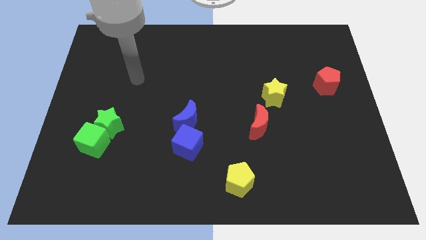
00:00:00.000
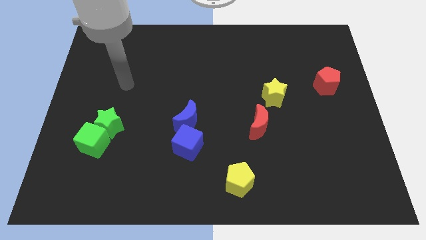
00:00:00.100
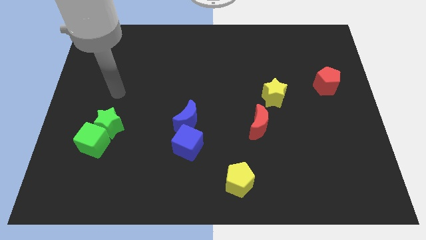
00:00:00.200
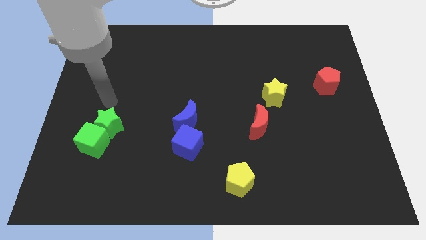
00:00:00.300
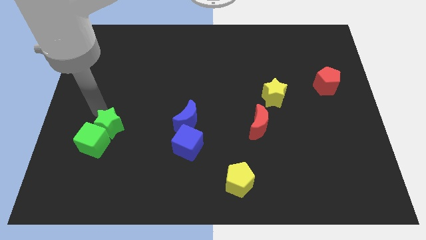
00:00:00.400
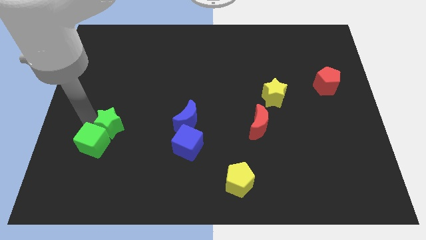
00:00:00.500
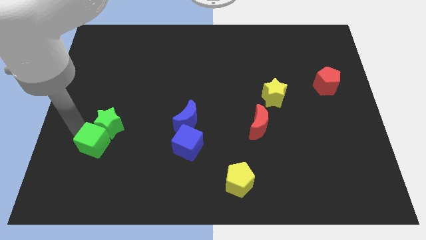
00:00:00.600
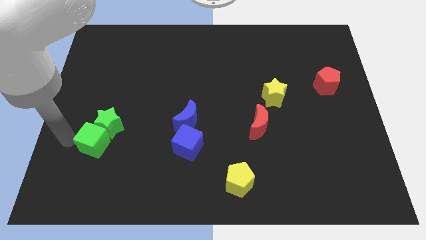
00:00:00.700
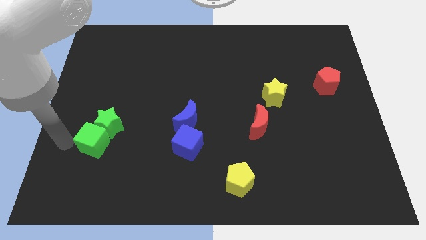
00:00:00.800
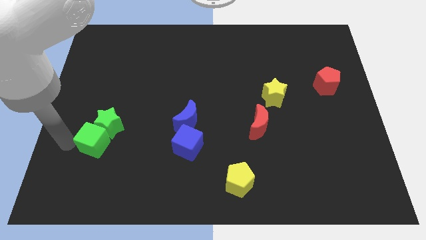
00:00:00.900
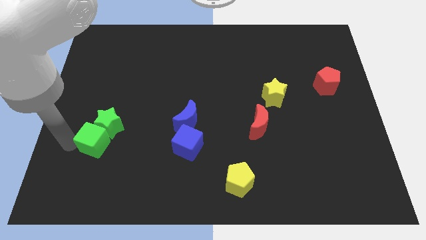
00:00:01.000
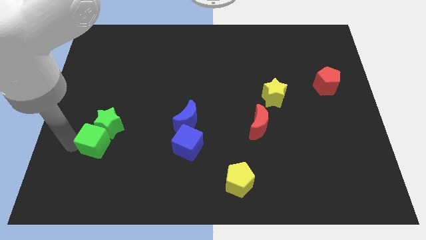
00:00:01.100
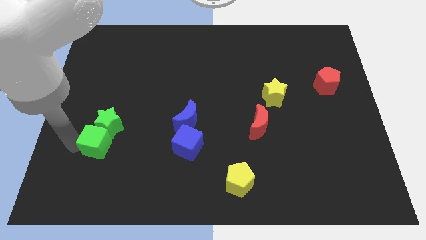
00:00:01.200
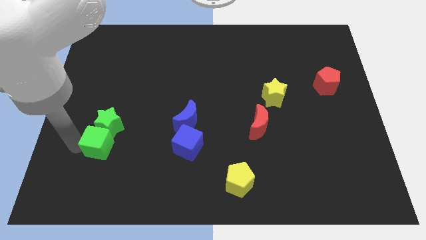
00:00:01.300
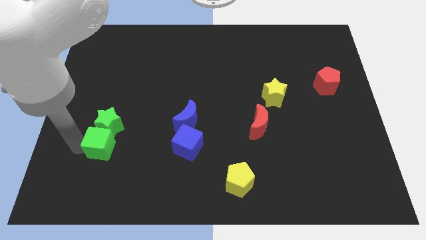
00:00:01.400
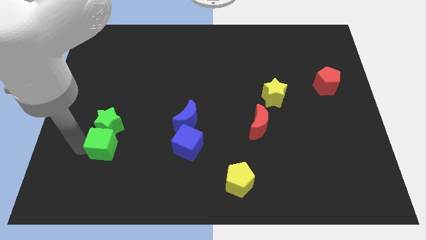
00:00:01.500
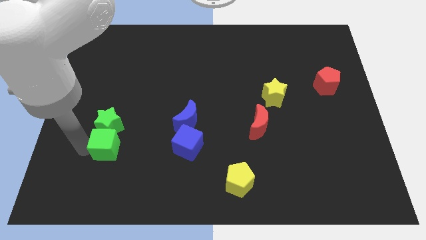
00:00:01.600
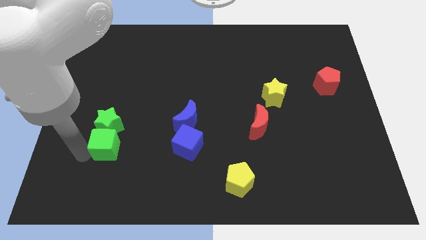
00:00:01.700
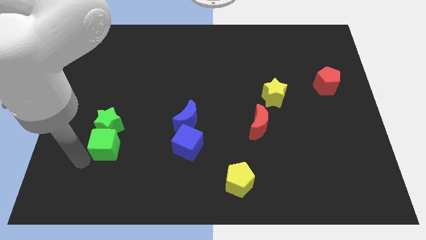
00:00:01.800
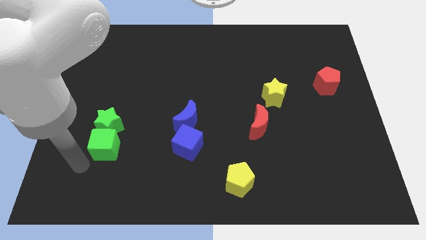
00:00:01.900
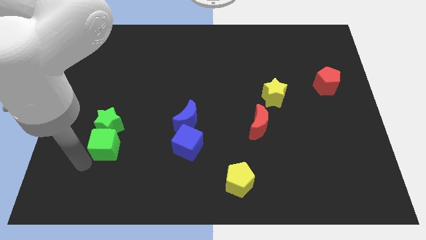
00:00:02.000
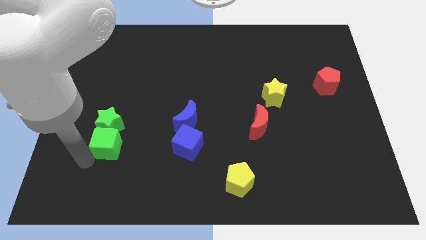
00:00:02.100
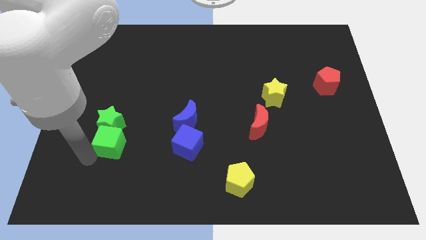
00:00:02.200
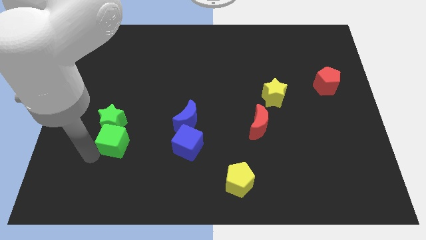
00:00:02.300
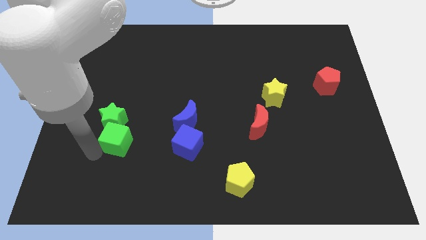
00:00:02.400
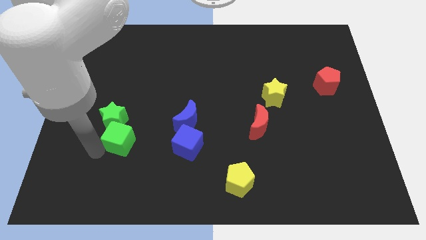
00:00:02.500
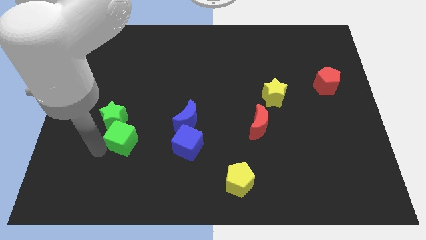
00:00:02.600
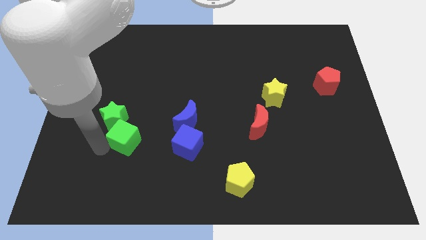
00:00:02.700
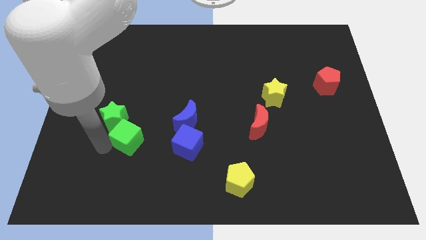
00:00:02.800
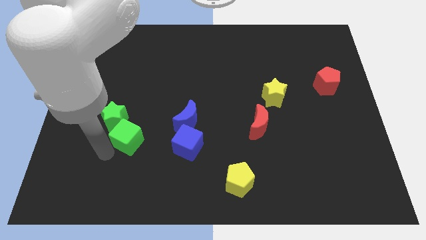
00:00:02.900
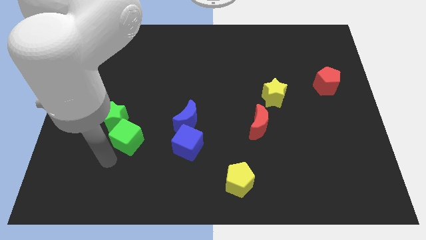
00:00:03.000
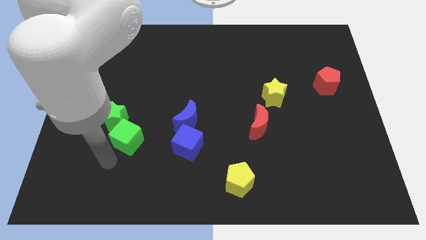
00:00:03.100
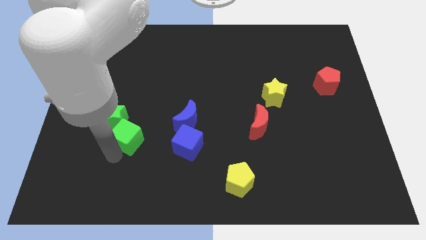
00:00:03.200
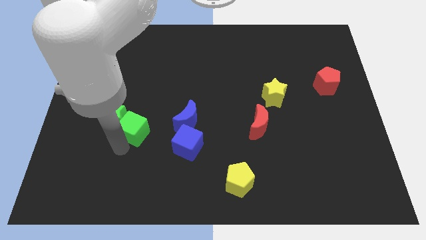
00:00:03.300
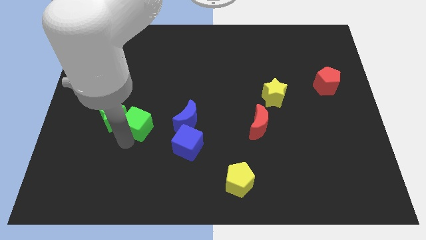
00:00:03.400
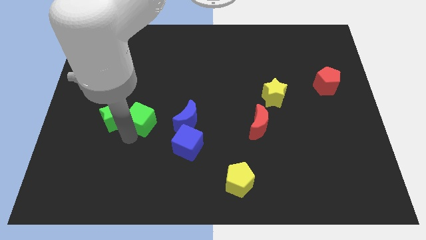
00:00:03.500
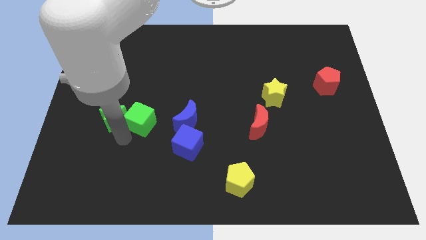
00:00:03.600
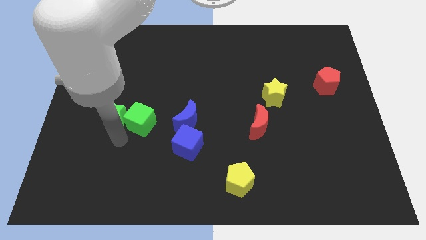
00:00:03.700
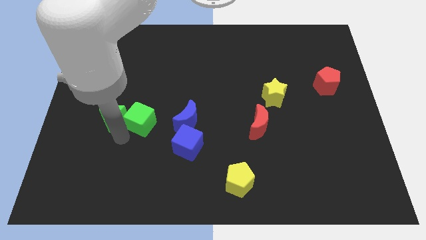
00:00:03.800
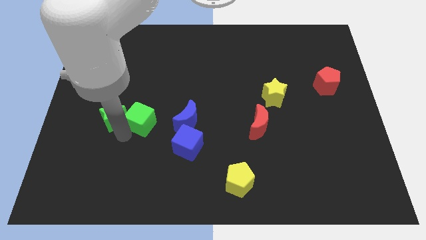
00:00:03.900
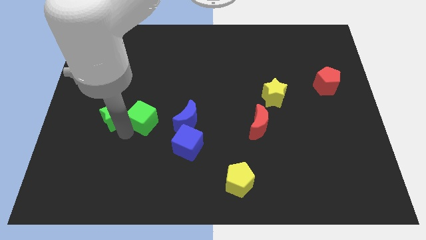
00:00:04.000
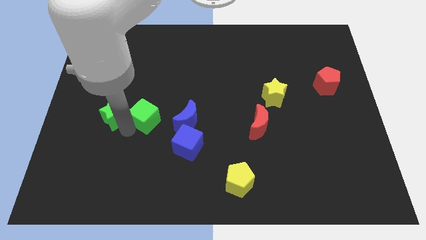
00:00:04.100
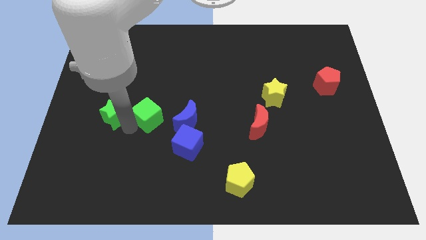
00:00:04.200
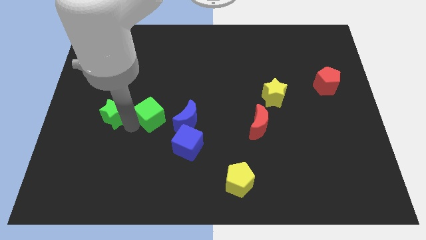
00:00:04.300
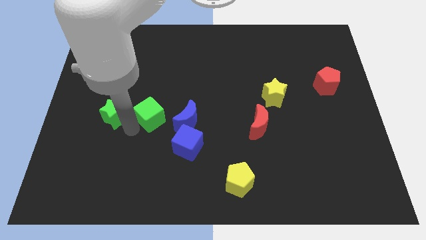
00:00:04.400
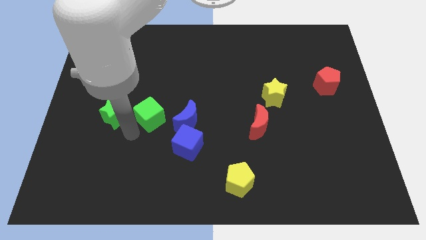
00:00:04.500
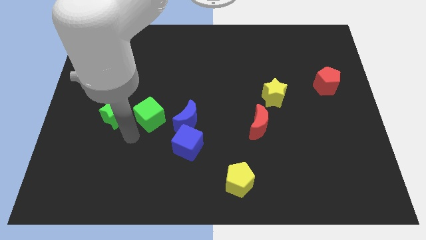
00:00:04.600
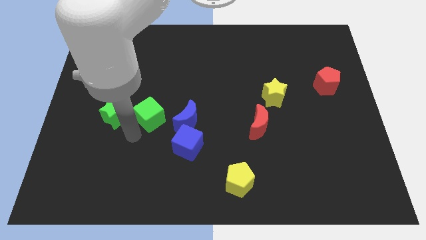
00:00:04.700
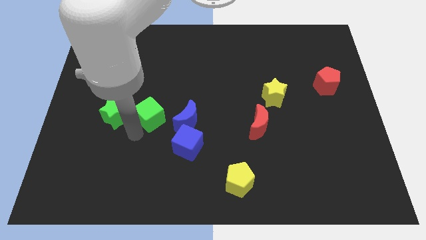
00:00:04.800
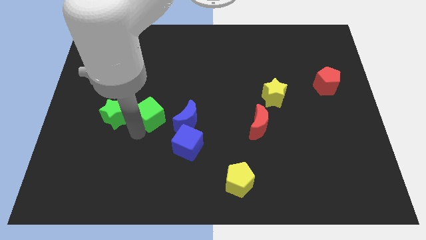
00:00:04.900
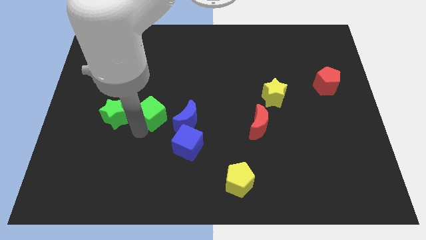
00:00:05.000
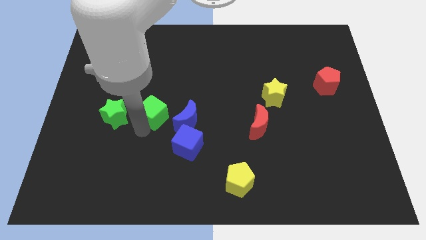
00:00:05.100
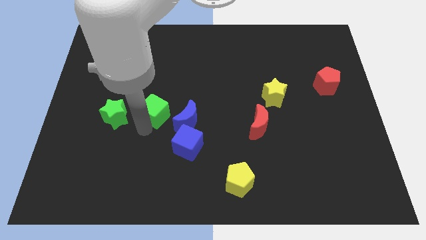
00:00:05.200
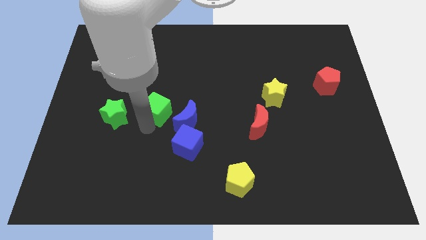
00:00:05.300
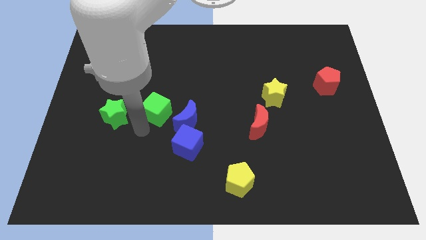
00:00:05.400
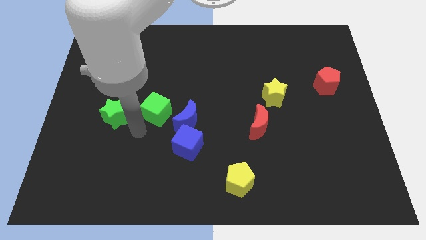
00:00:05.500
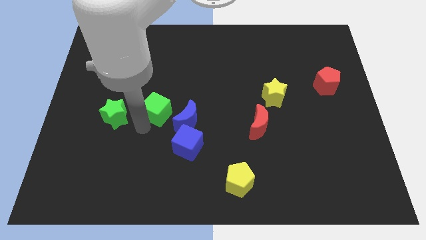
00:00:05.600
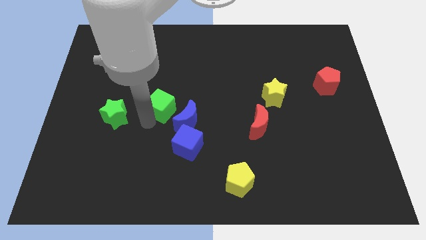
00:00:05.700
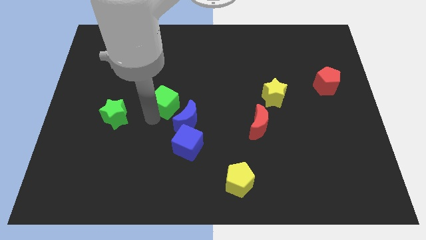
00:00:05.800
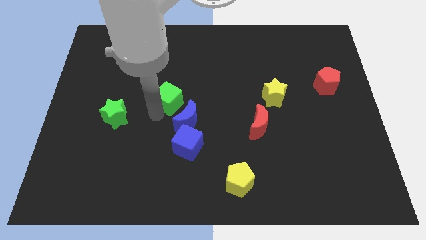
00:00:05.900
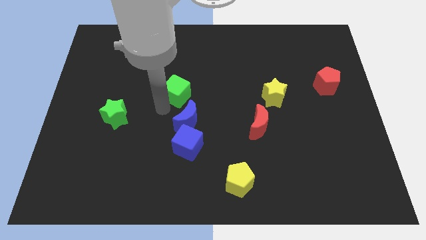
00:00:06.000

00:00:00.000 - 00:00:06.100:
push the green cube upwards and to the right

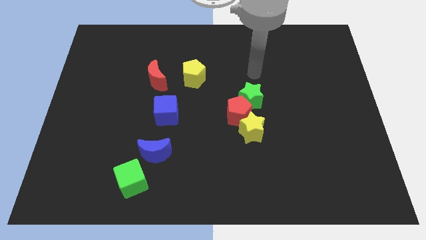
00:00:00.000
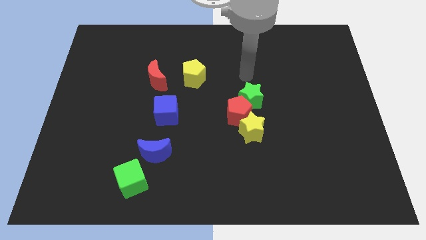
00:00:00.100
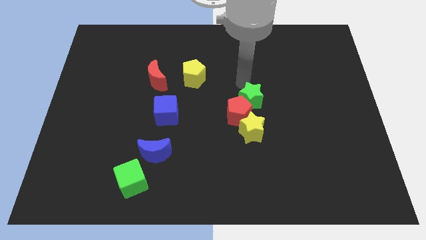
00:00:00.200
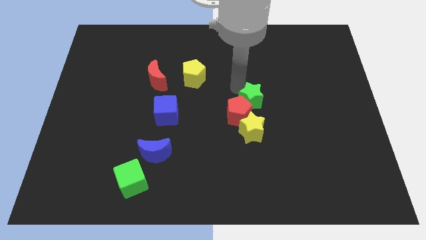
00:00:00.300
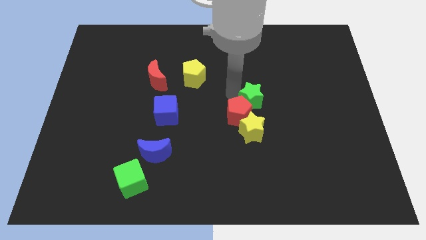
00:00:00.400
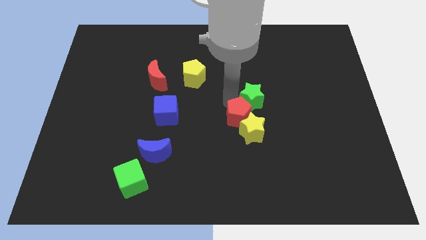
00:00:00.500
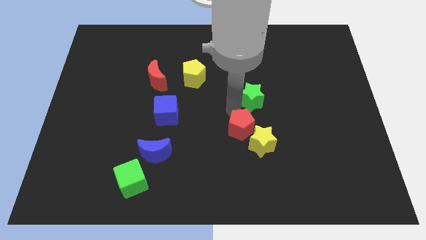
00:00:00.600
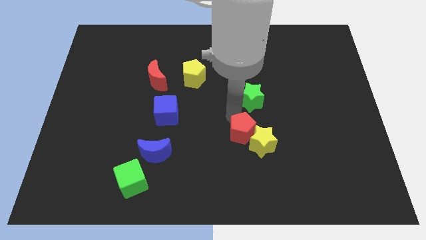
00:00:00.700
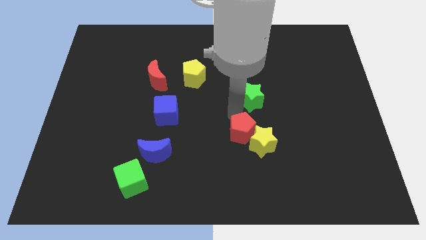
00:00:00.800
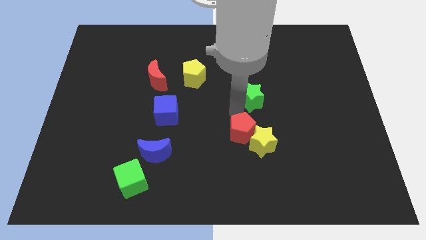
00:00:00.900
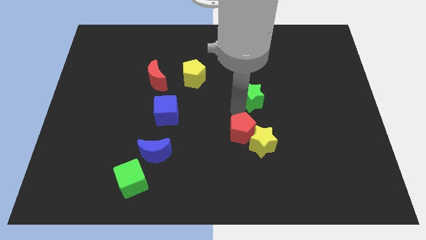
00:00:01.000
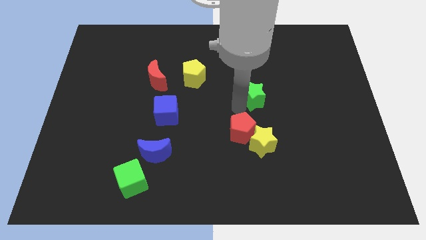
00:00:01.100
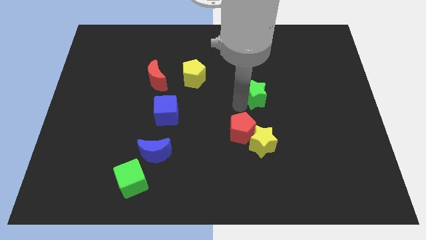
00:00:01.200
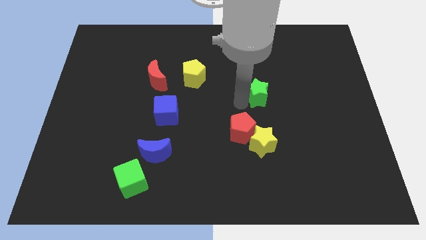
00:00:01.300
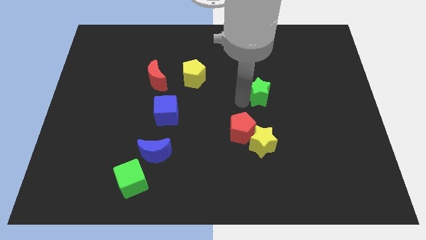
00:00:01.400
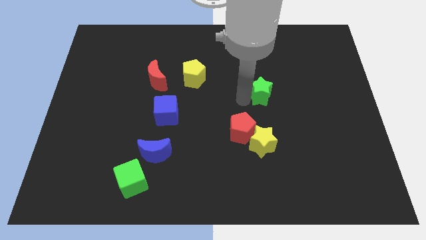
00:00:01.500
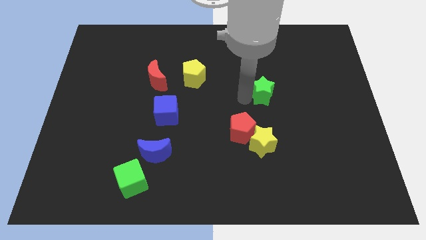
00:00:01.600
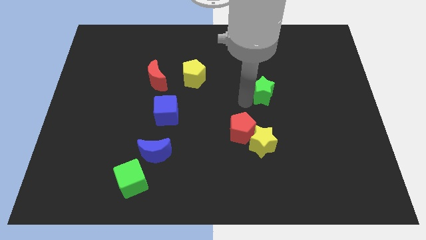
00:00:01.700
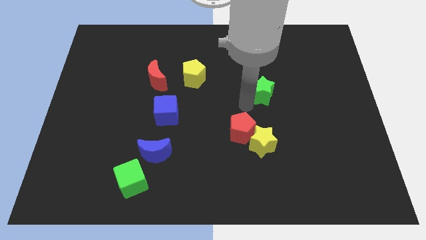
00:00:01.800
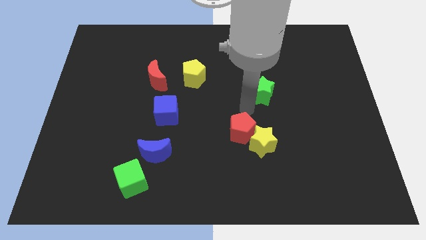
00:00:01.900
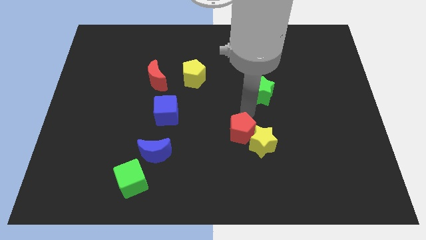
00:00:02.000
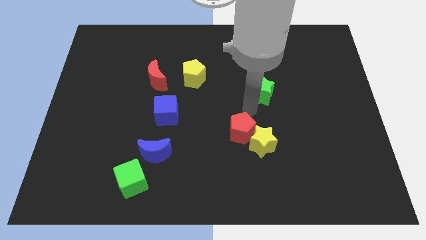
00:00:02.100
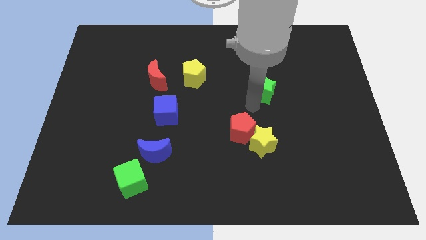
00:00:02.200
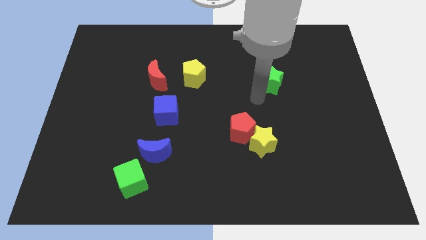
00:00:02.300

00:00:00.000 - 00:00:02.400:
slide the green star diagonally up and right somewhat
